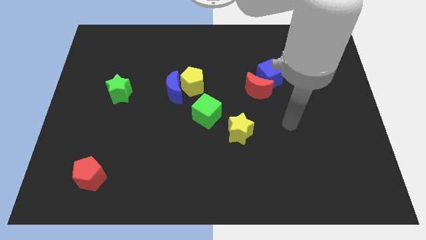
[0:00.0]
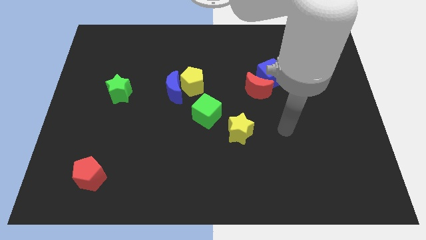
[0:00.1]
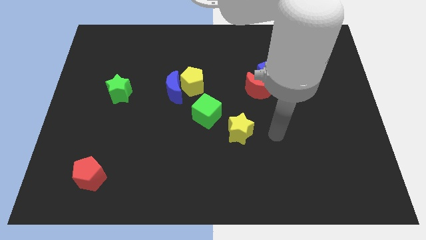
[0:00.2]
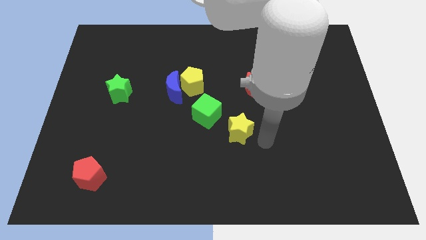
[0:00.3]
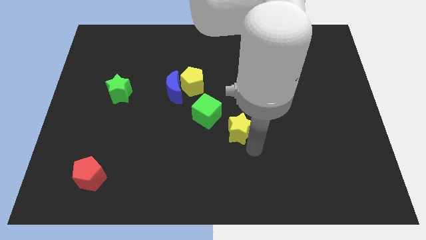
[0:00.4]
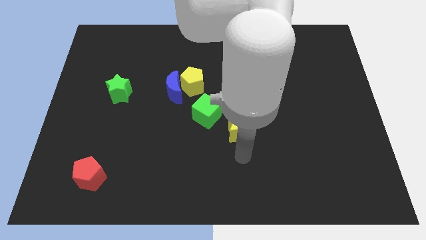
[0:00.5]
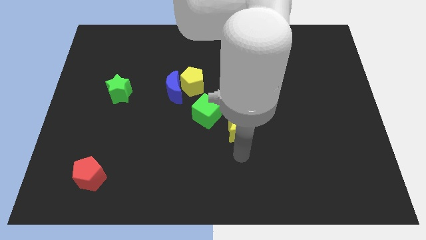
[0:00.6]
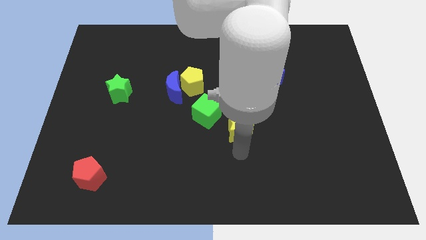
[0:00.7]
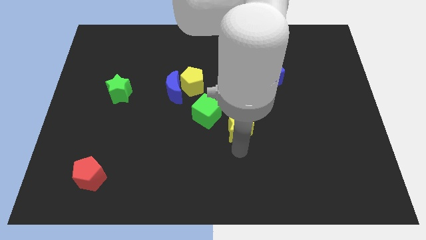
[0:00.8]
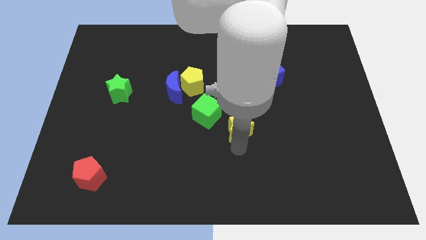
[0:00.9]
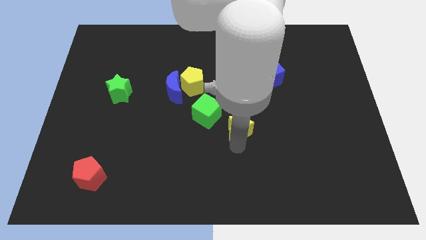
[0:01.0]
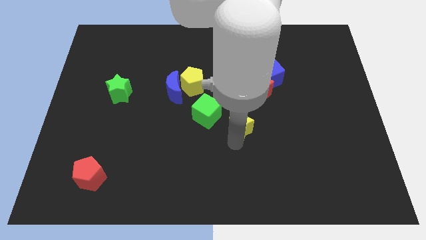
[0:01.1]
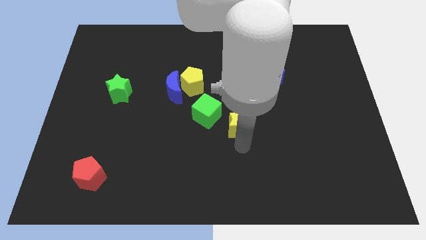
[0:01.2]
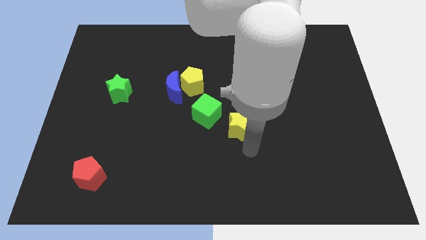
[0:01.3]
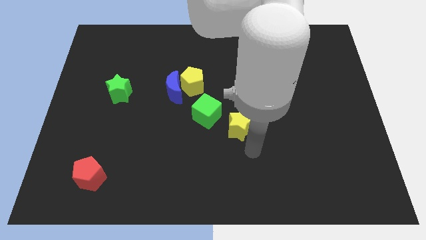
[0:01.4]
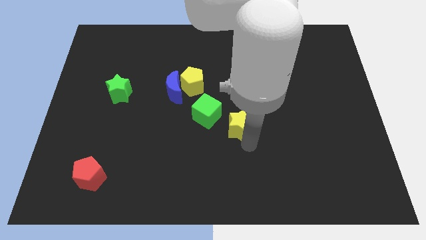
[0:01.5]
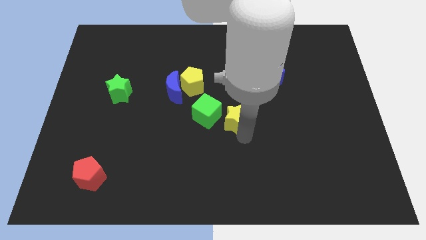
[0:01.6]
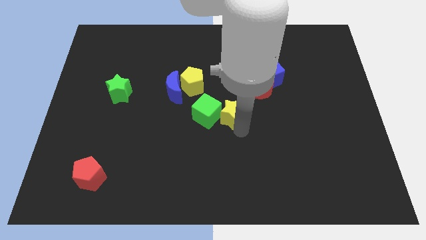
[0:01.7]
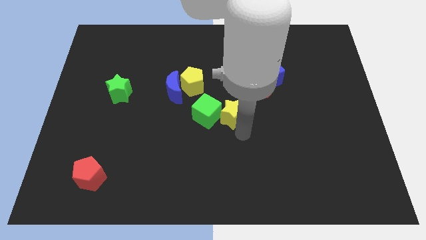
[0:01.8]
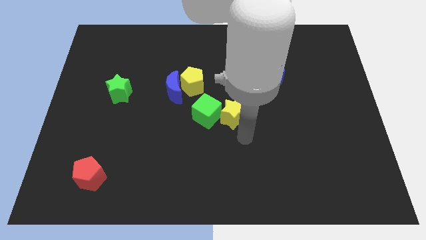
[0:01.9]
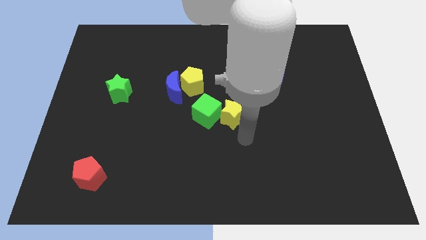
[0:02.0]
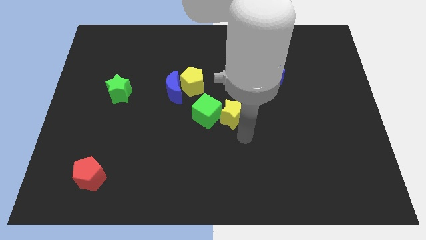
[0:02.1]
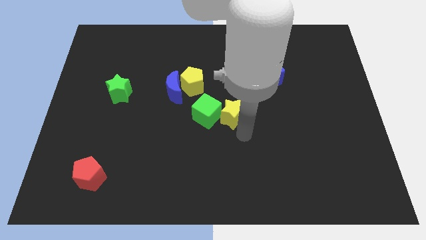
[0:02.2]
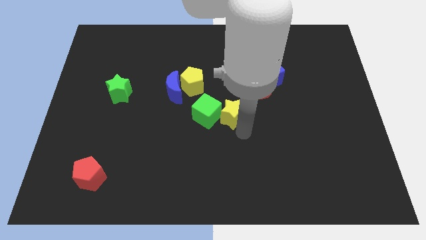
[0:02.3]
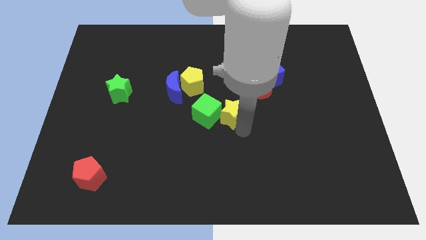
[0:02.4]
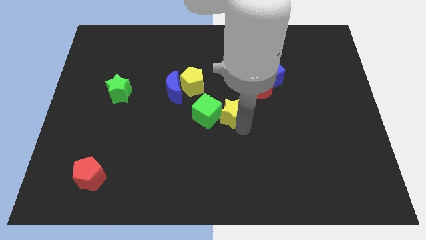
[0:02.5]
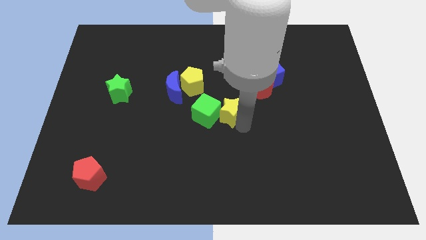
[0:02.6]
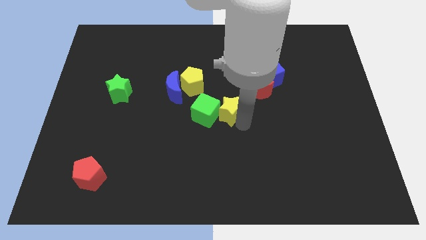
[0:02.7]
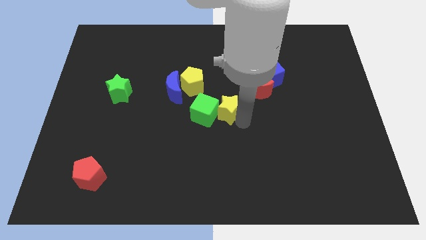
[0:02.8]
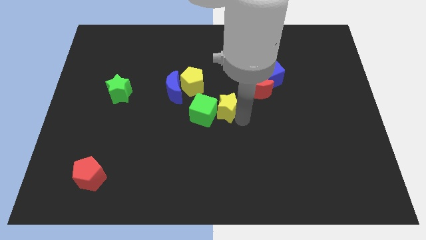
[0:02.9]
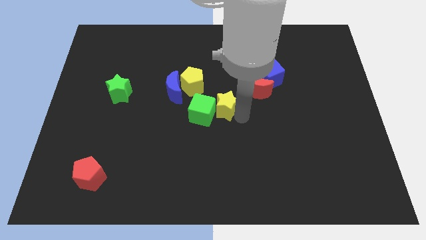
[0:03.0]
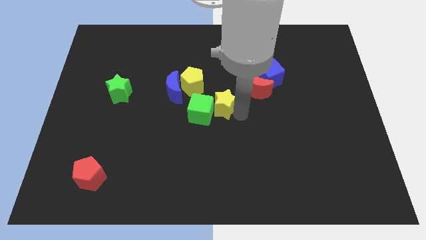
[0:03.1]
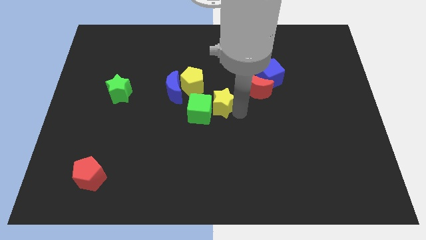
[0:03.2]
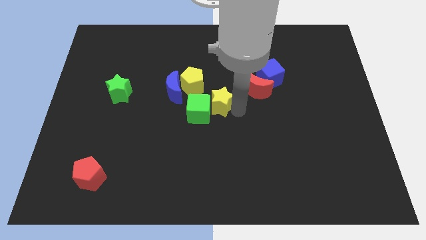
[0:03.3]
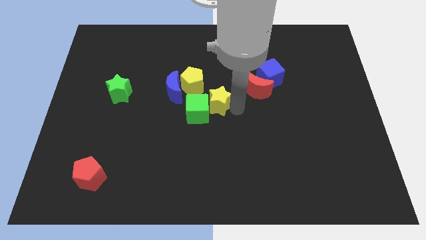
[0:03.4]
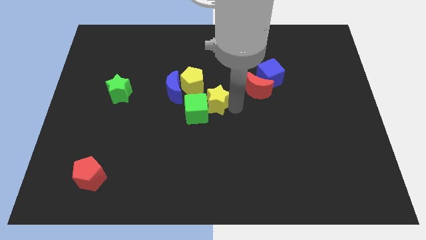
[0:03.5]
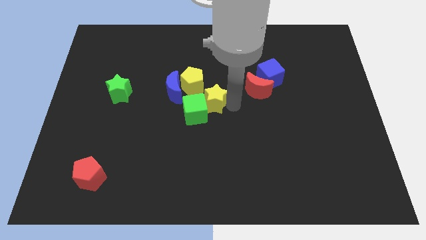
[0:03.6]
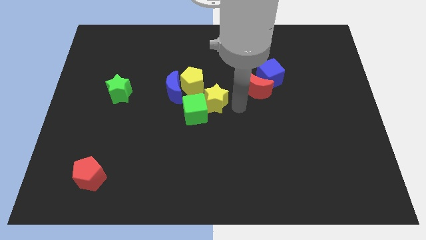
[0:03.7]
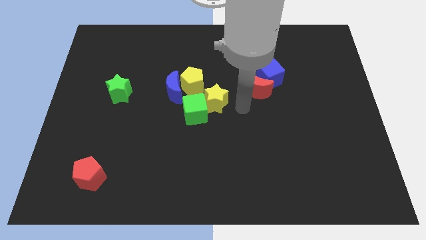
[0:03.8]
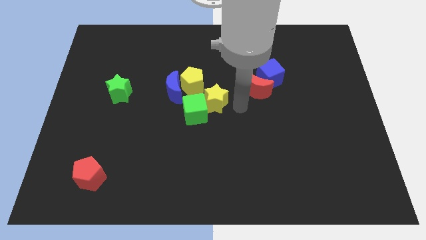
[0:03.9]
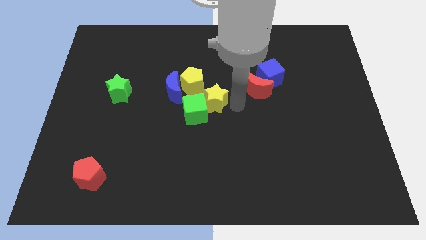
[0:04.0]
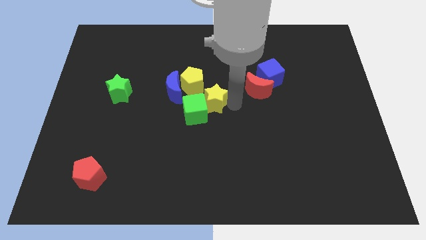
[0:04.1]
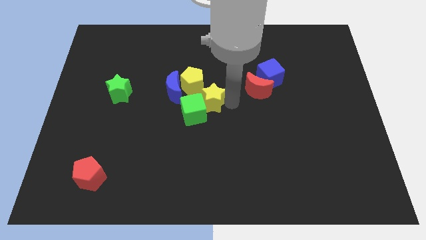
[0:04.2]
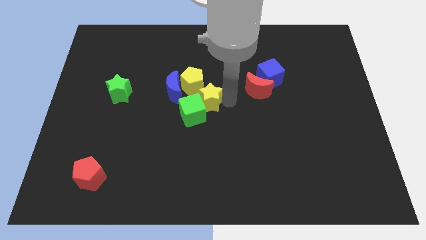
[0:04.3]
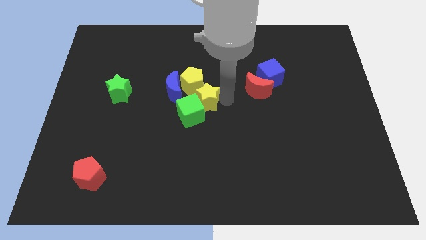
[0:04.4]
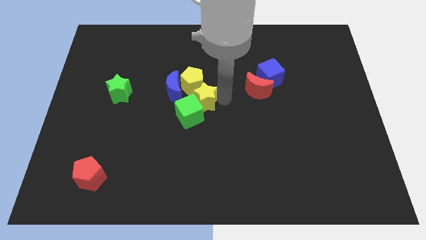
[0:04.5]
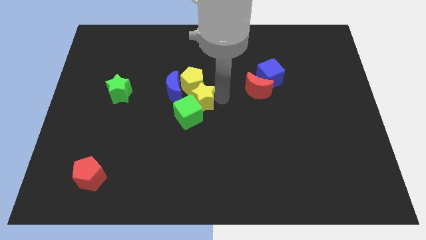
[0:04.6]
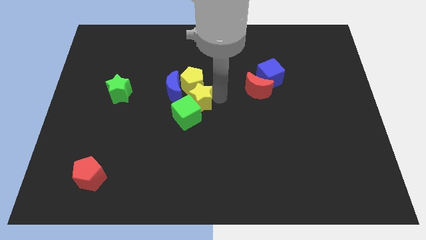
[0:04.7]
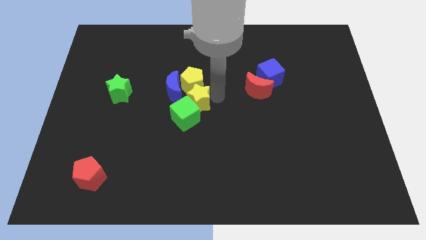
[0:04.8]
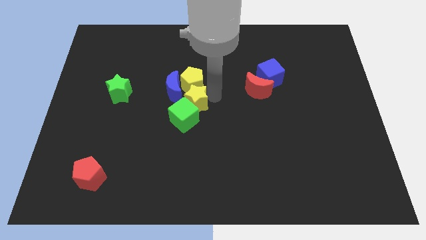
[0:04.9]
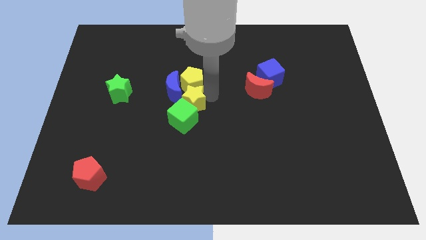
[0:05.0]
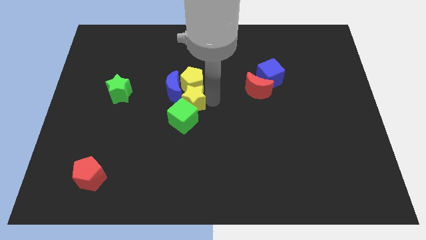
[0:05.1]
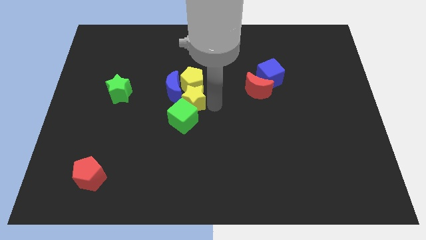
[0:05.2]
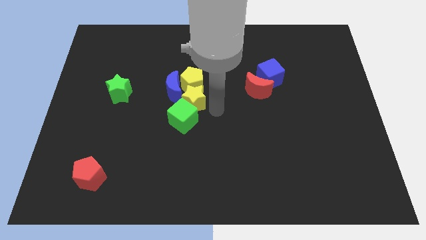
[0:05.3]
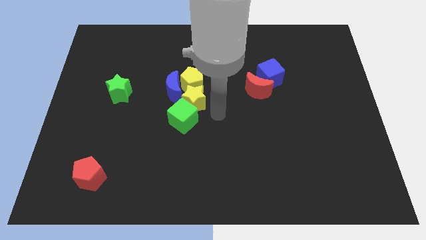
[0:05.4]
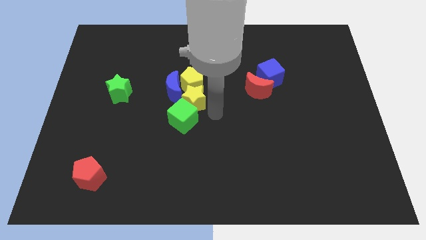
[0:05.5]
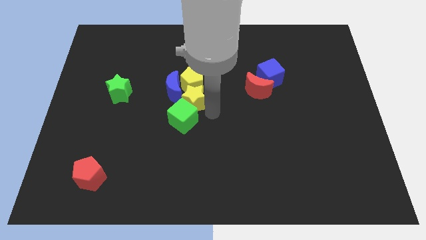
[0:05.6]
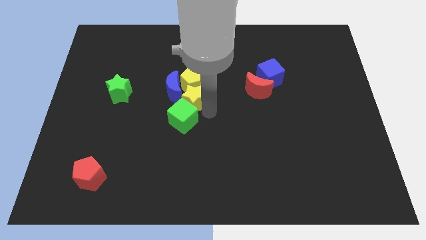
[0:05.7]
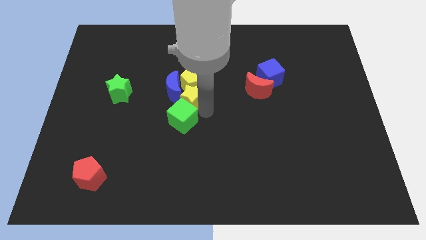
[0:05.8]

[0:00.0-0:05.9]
push the yellow star to the blue moon
